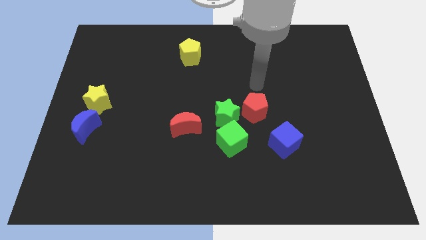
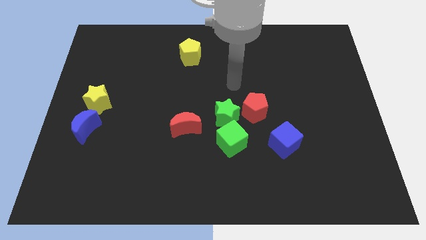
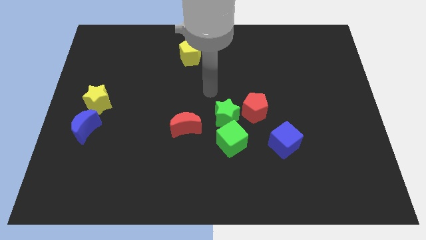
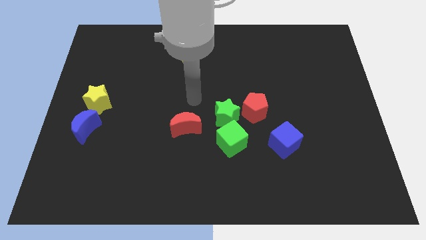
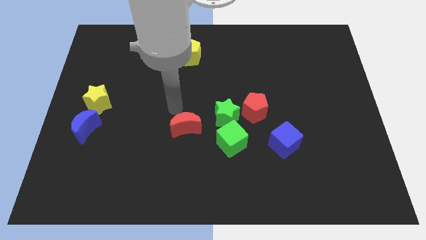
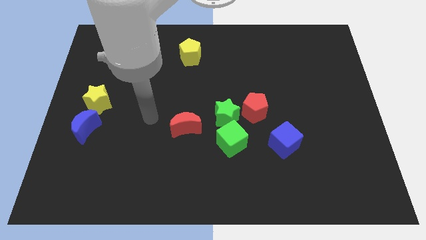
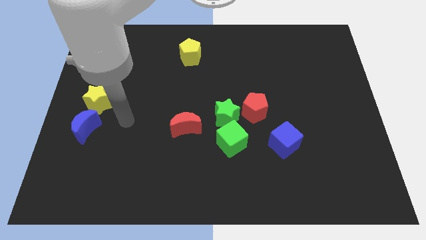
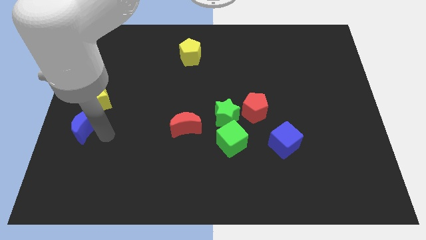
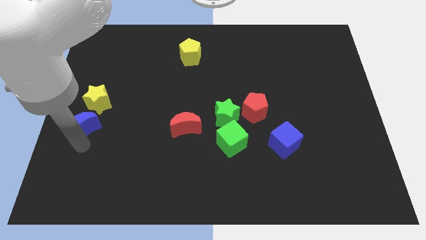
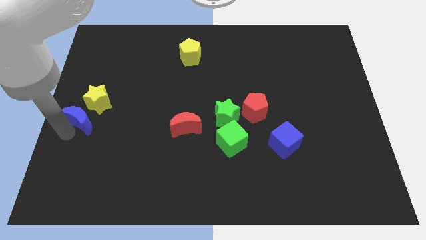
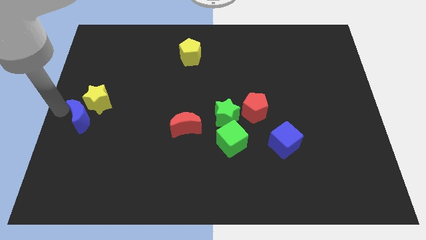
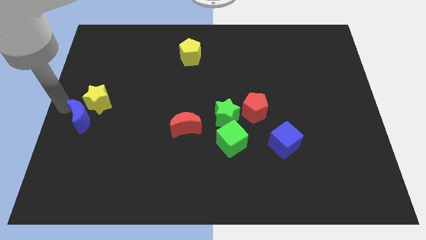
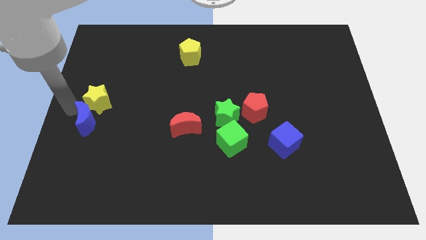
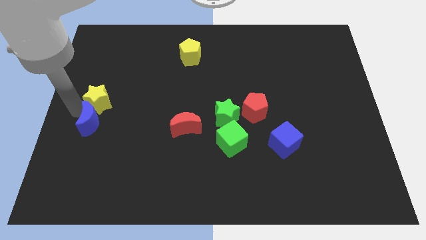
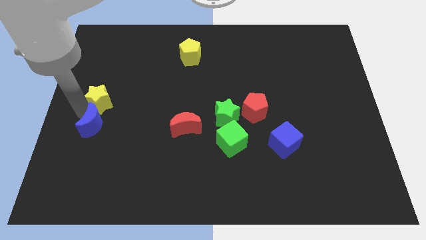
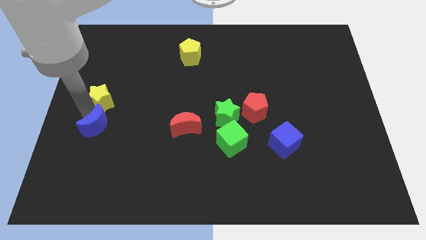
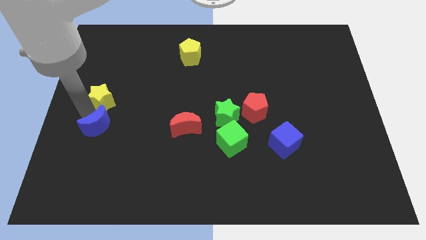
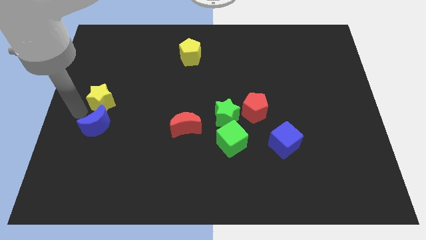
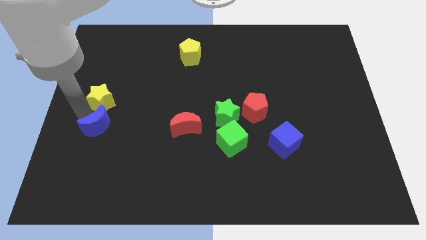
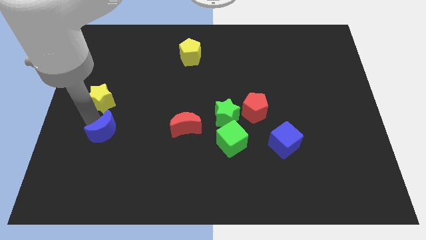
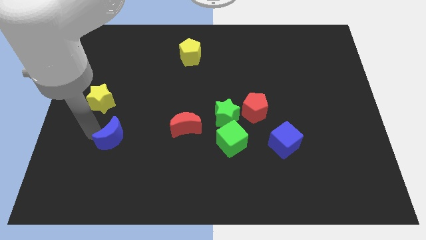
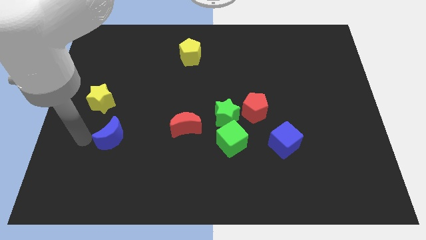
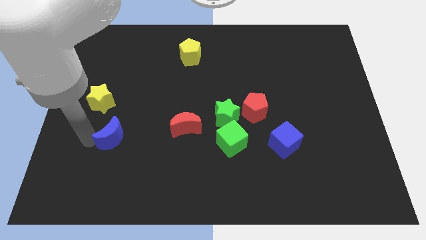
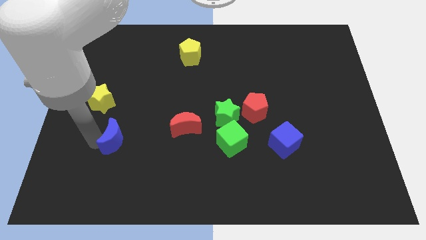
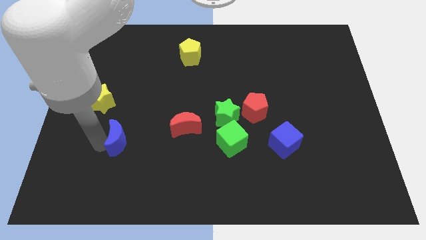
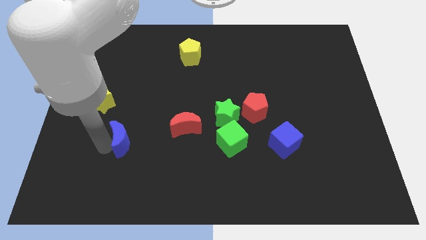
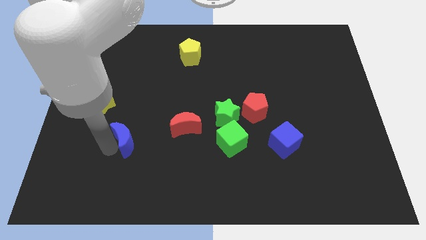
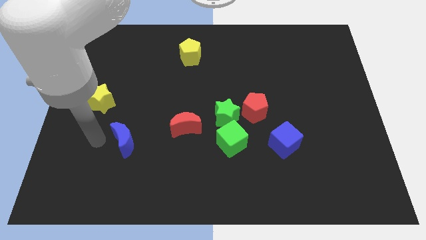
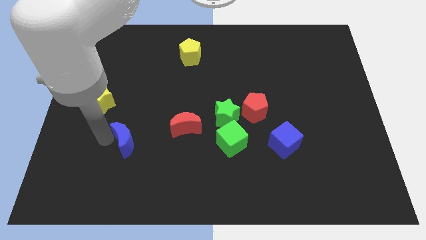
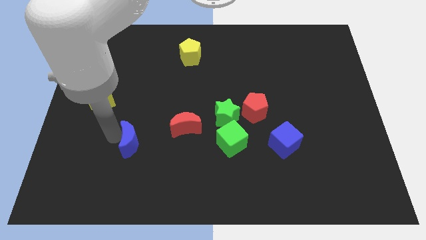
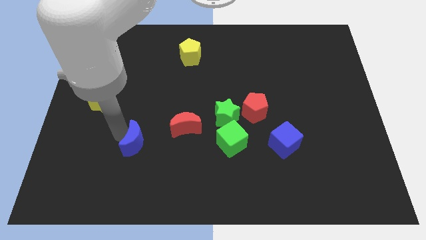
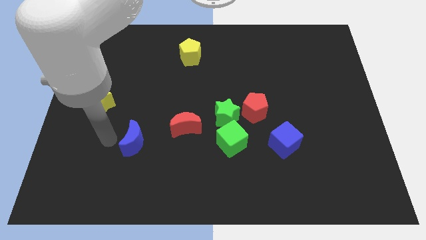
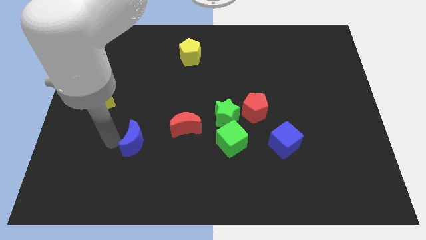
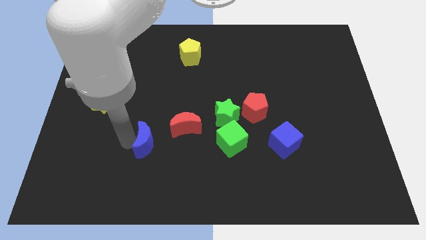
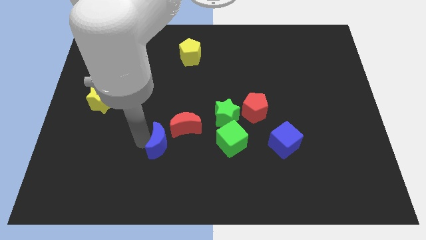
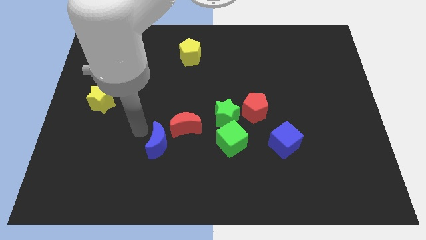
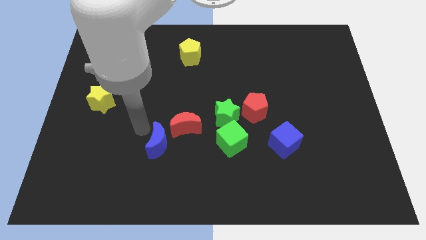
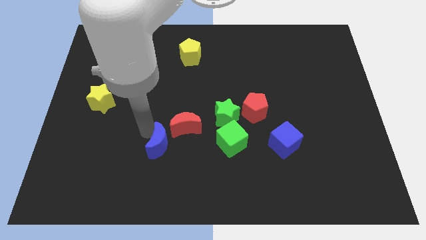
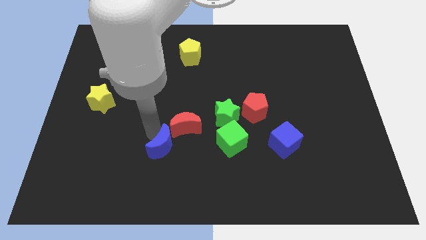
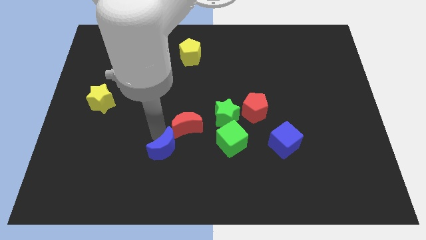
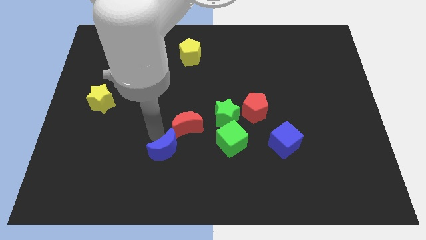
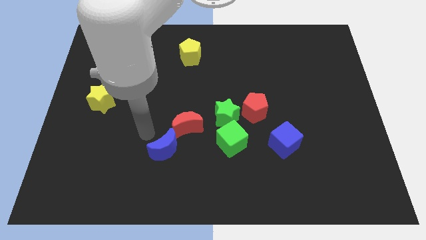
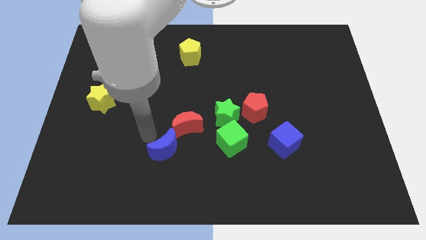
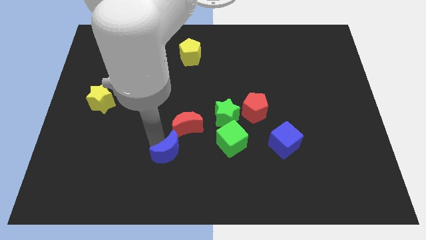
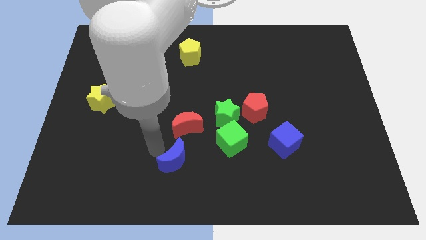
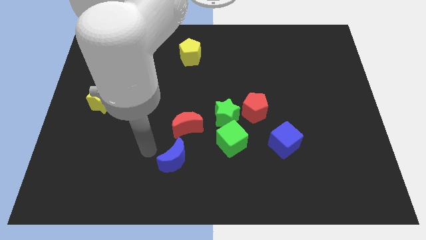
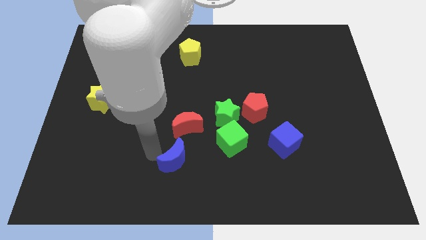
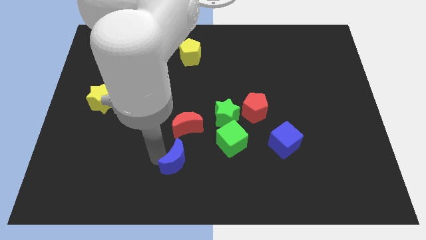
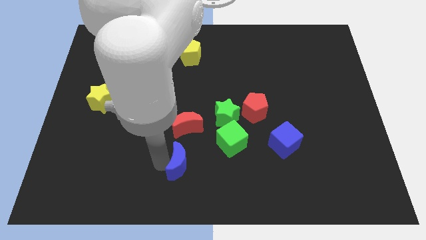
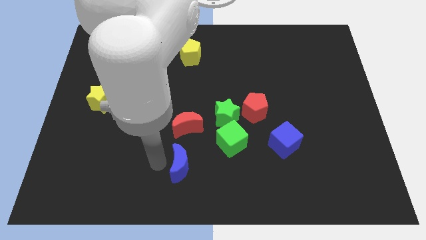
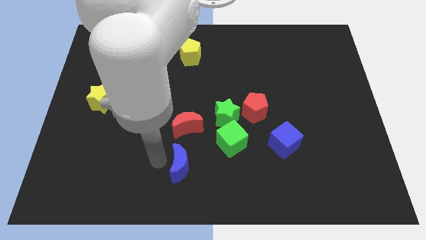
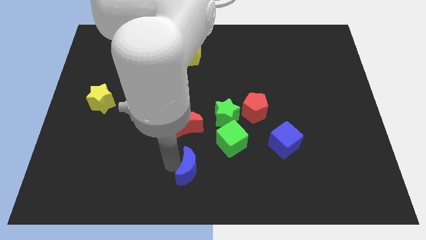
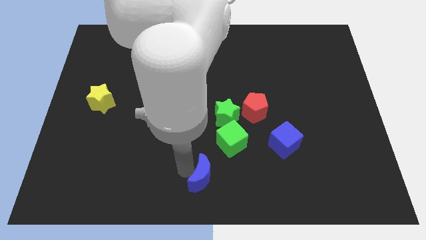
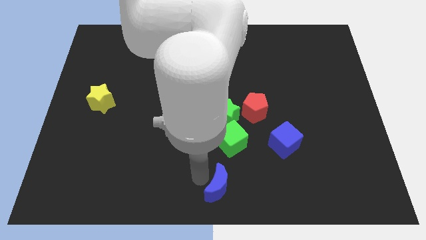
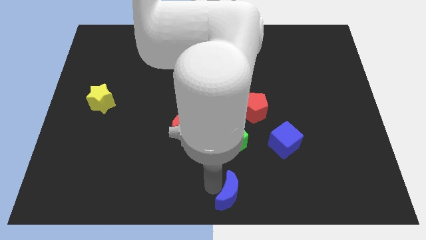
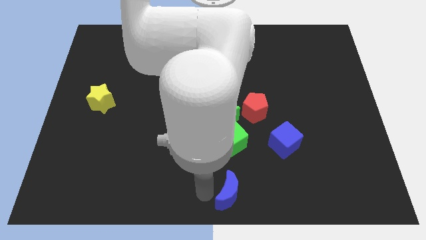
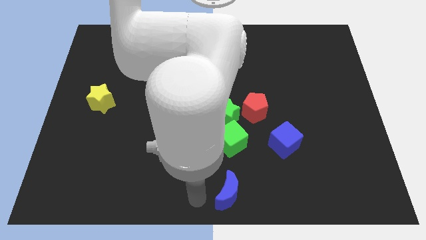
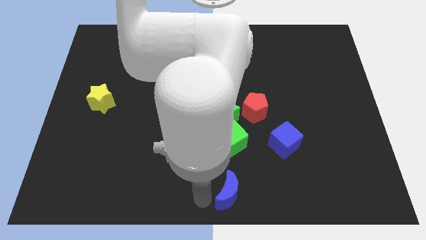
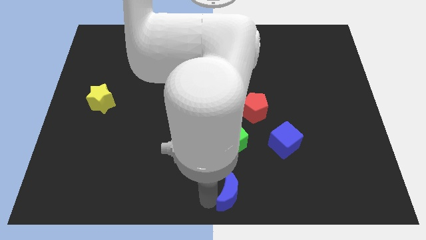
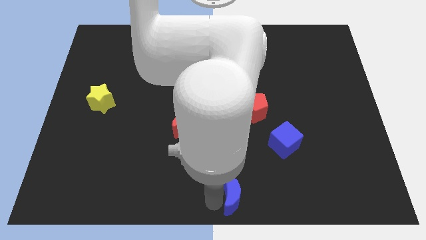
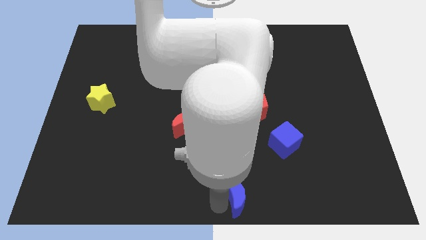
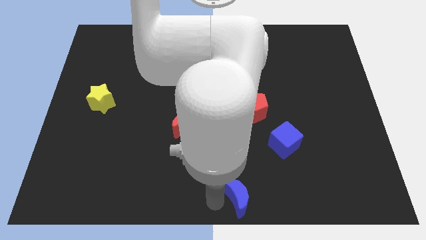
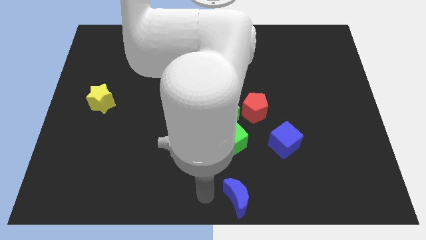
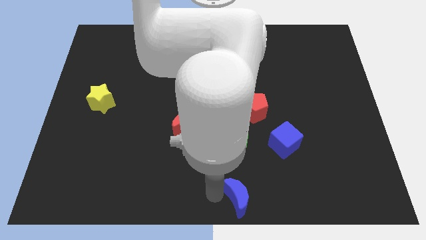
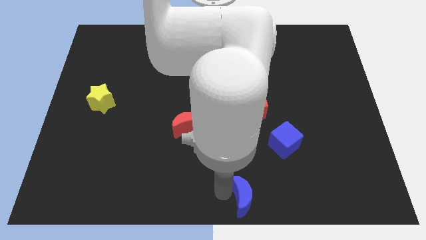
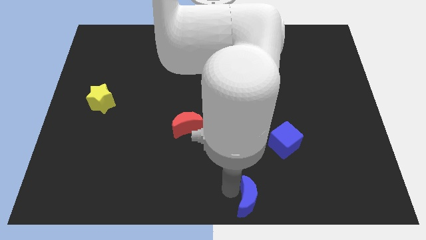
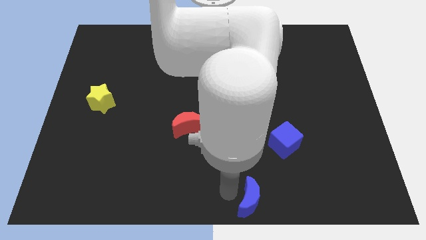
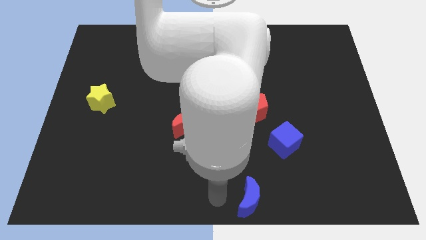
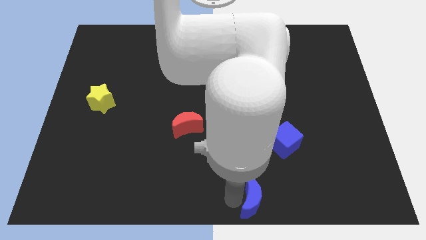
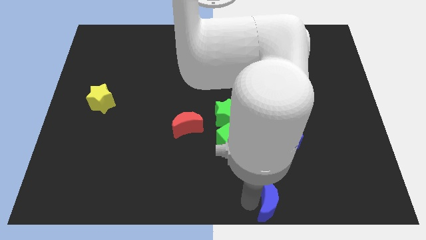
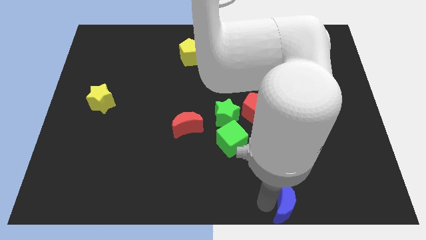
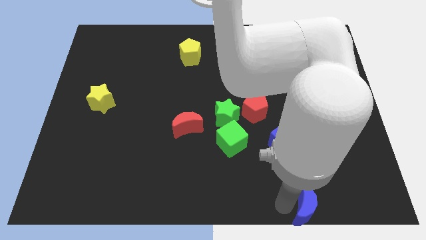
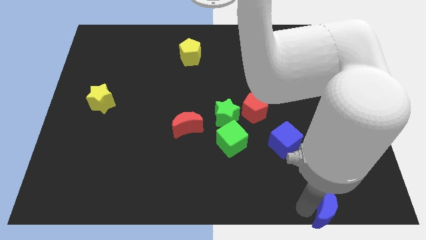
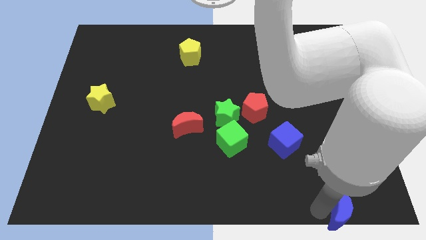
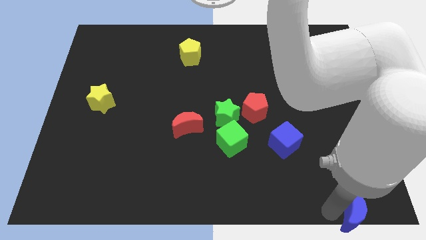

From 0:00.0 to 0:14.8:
move the blue moon to the bottom right of the board
